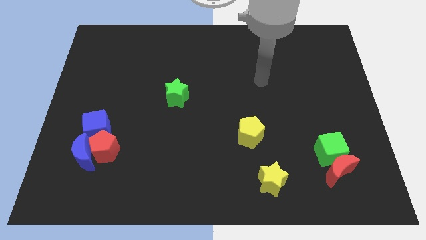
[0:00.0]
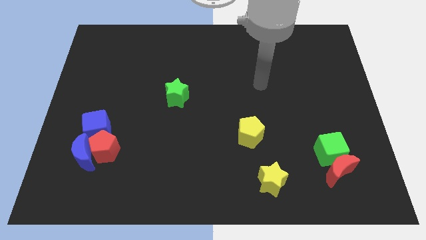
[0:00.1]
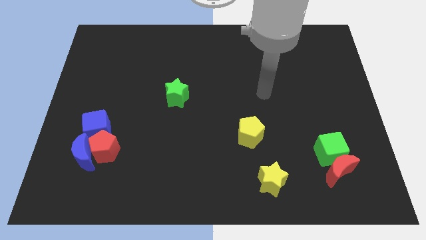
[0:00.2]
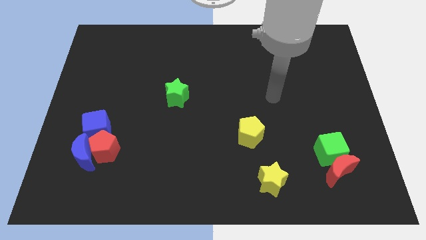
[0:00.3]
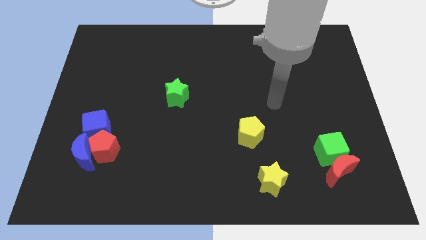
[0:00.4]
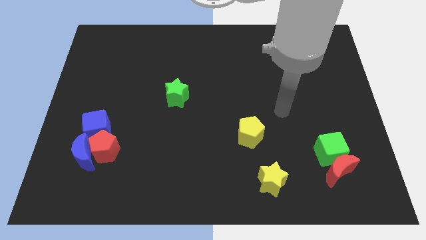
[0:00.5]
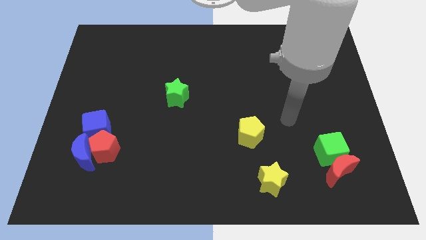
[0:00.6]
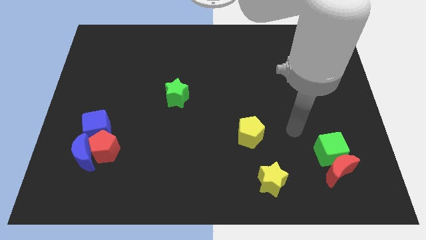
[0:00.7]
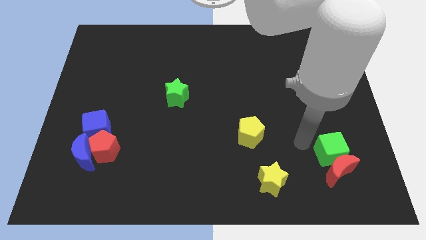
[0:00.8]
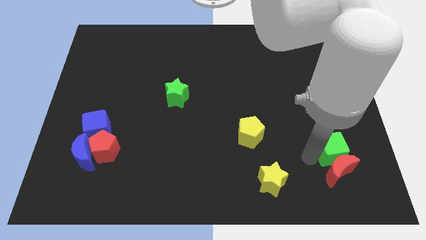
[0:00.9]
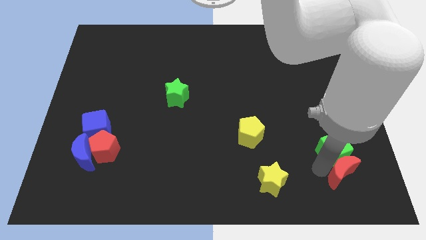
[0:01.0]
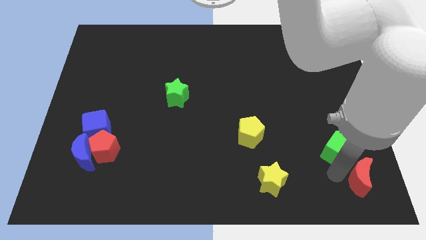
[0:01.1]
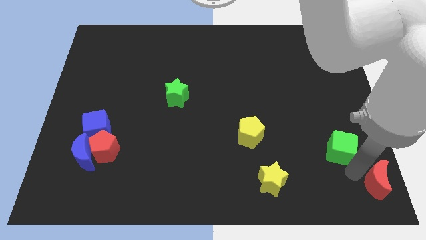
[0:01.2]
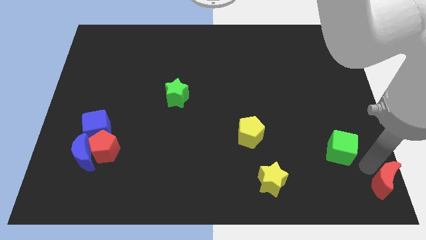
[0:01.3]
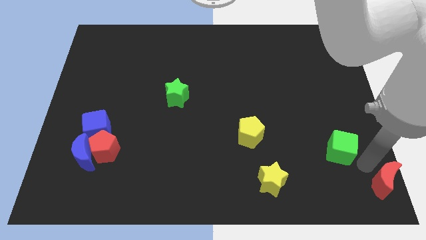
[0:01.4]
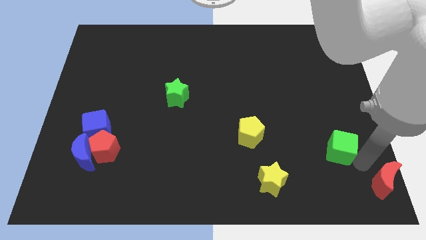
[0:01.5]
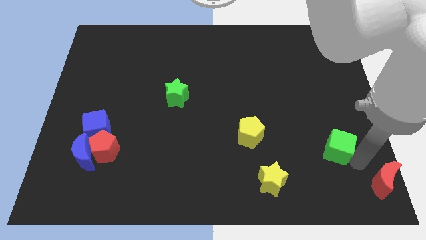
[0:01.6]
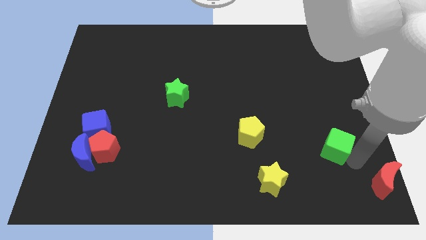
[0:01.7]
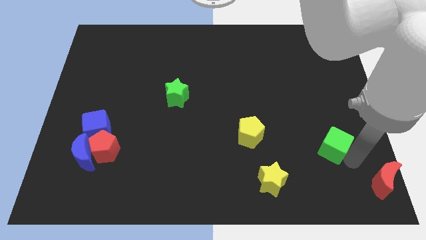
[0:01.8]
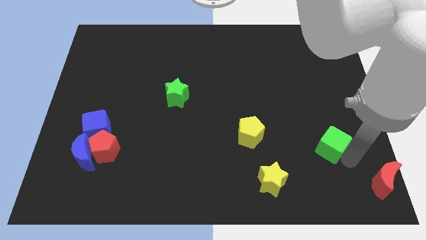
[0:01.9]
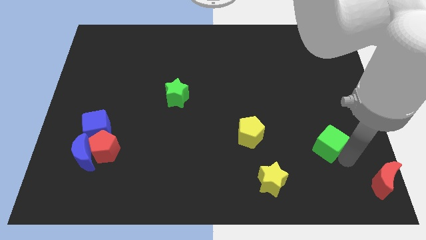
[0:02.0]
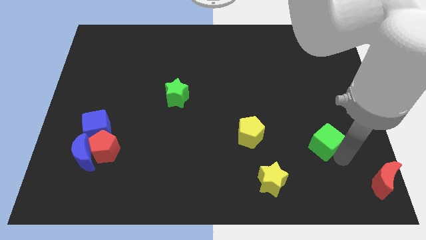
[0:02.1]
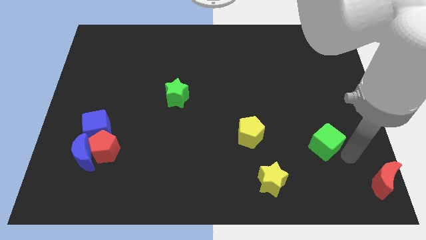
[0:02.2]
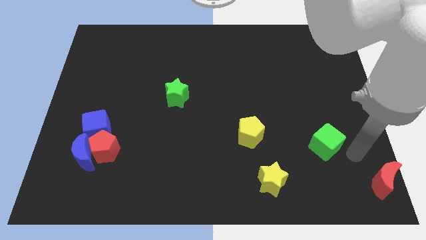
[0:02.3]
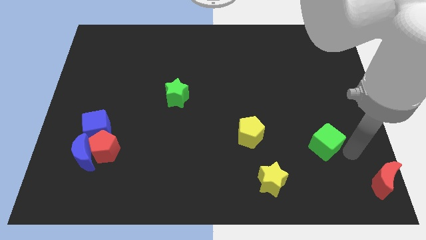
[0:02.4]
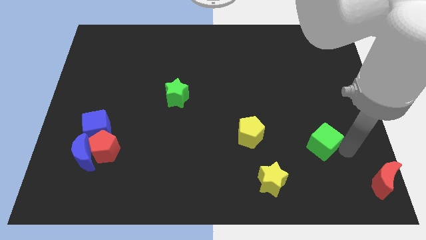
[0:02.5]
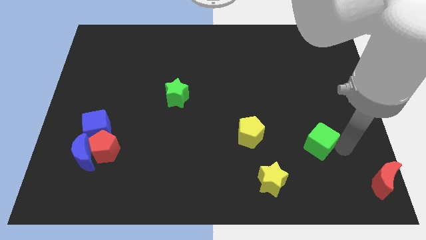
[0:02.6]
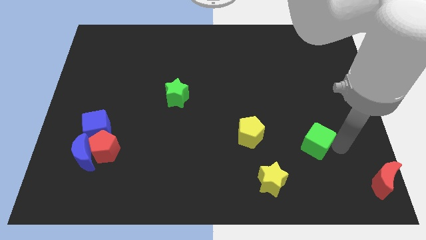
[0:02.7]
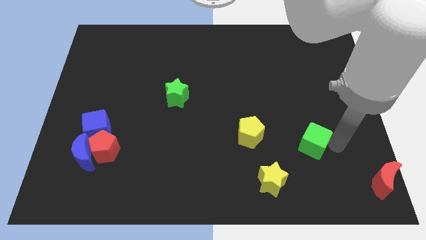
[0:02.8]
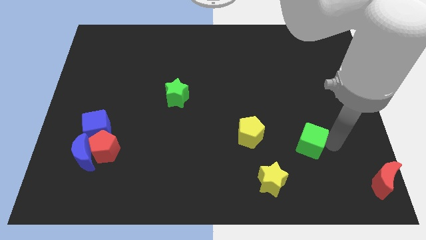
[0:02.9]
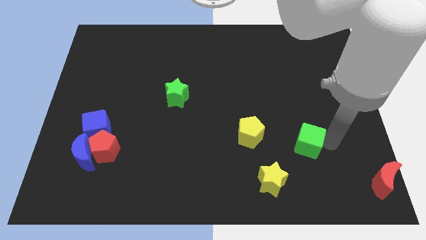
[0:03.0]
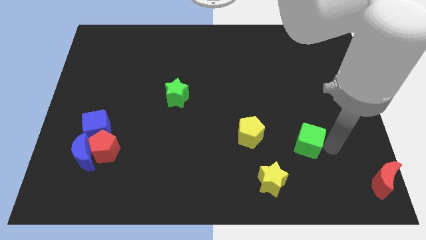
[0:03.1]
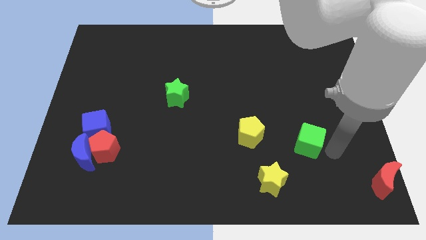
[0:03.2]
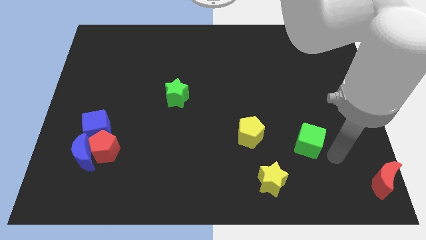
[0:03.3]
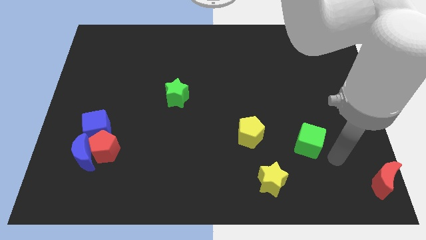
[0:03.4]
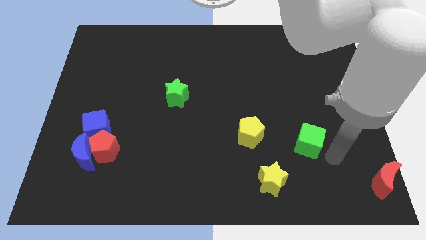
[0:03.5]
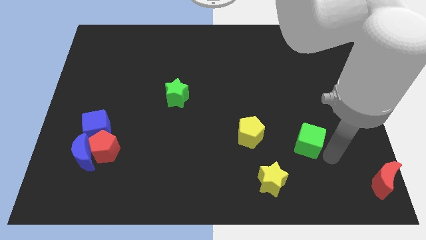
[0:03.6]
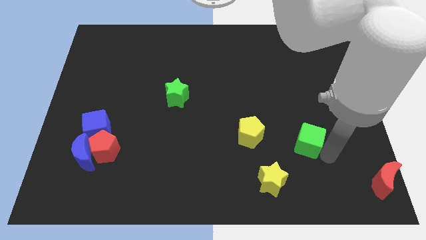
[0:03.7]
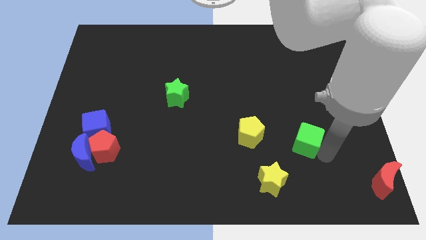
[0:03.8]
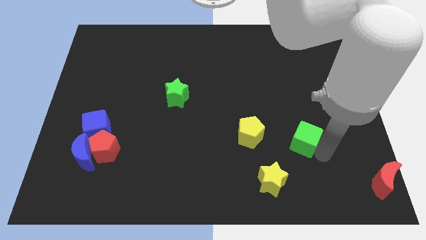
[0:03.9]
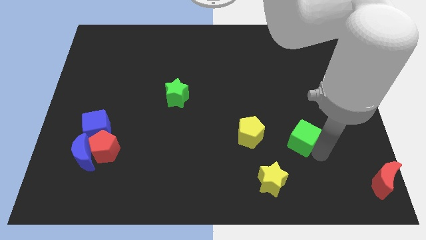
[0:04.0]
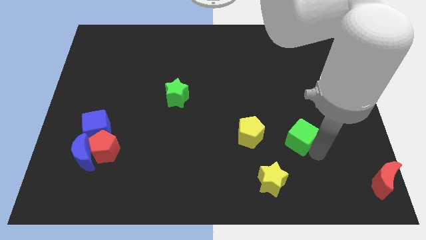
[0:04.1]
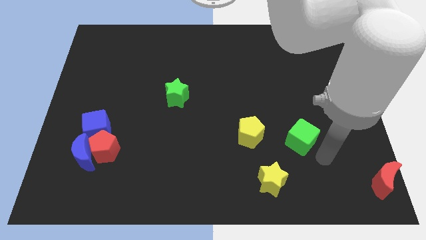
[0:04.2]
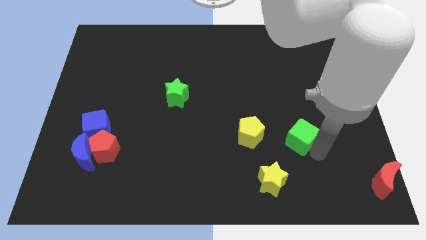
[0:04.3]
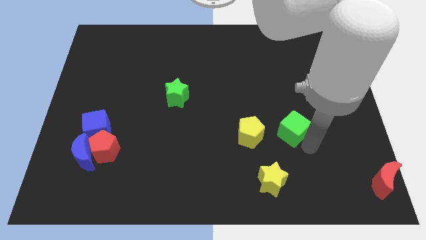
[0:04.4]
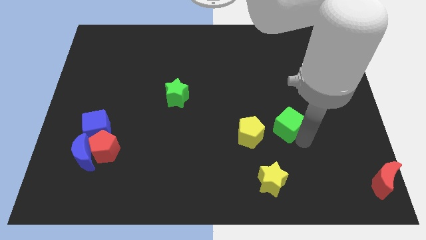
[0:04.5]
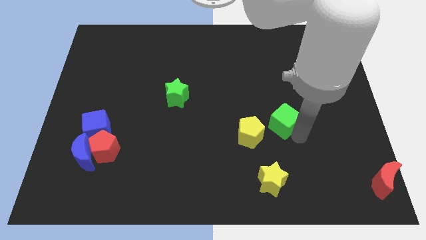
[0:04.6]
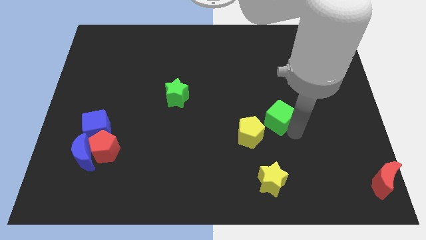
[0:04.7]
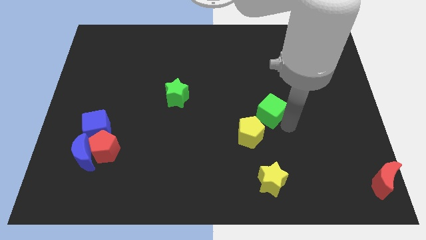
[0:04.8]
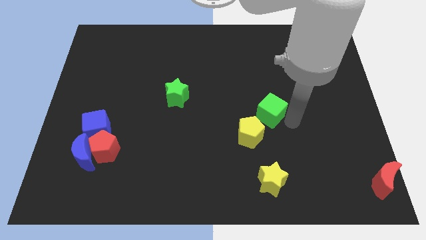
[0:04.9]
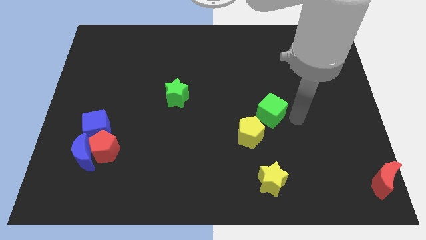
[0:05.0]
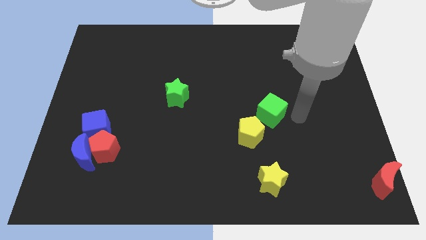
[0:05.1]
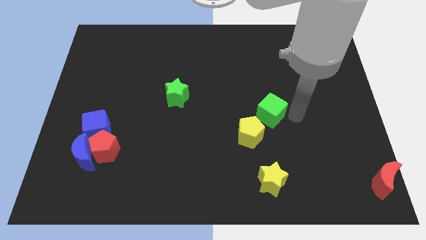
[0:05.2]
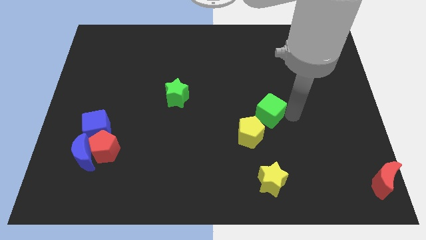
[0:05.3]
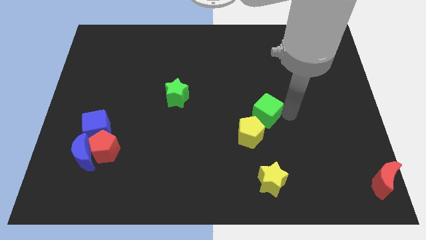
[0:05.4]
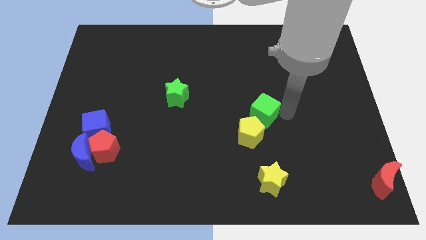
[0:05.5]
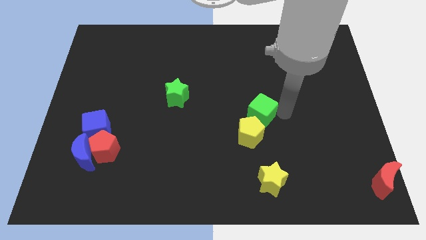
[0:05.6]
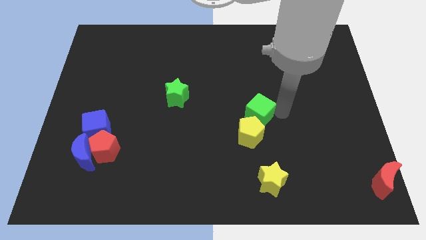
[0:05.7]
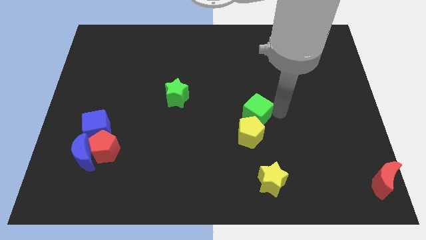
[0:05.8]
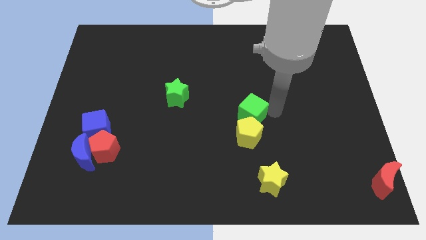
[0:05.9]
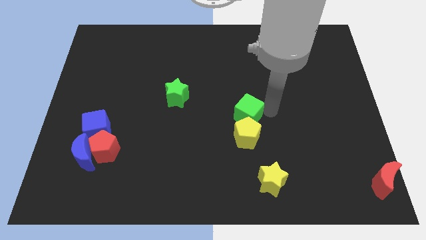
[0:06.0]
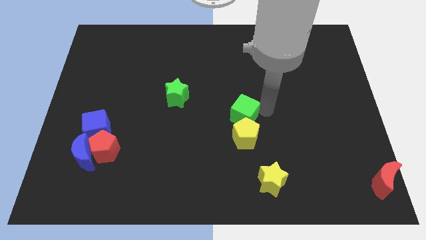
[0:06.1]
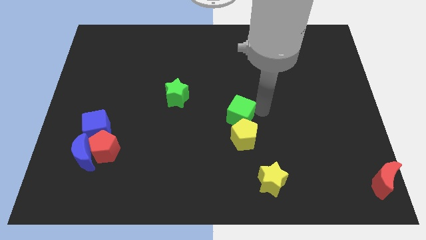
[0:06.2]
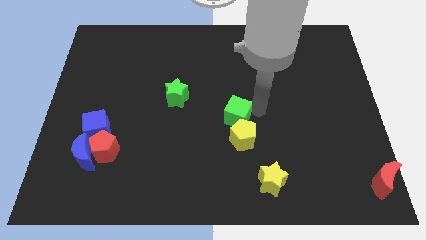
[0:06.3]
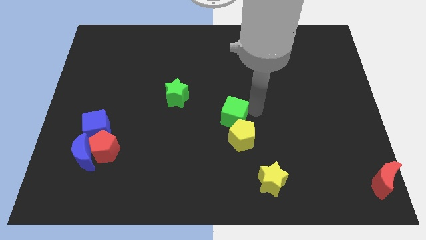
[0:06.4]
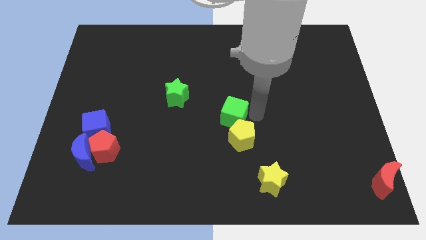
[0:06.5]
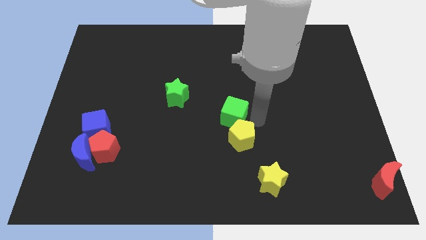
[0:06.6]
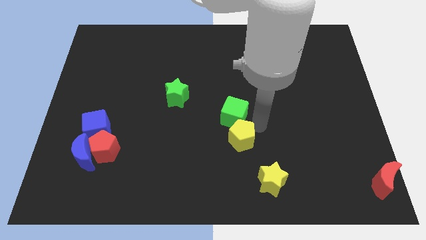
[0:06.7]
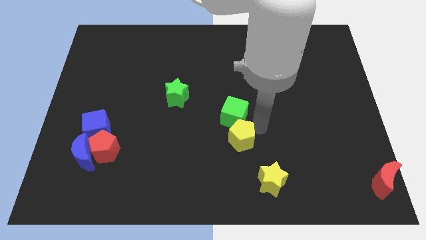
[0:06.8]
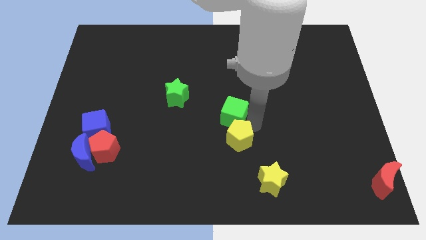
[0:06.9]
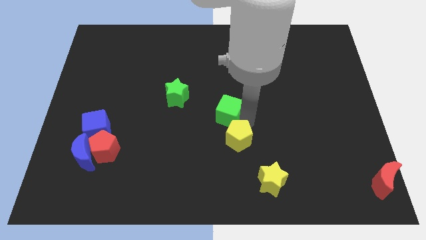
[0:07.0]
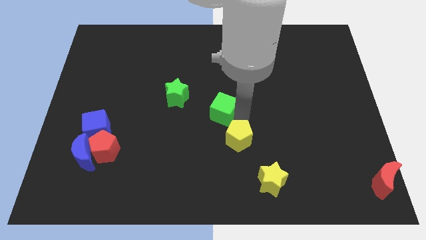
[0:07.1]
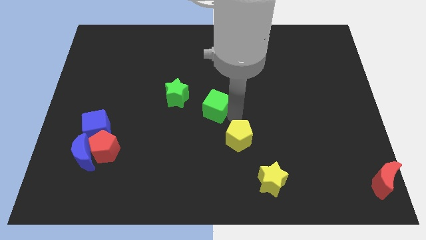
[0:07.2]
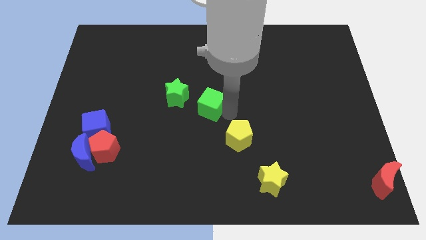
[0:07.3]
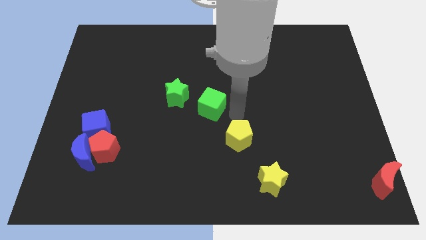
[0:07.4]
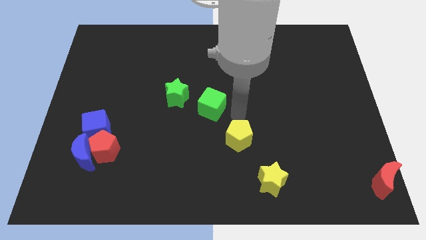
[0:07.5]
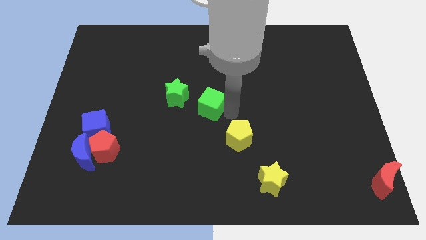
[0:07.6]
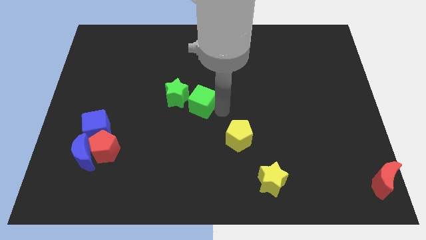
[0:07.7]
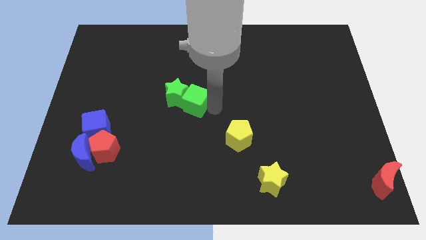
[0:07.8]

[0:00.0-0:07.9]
put the green cube close to the green star
